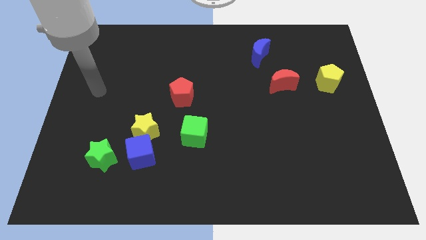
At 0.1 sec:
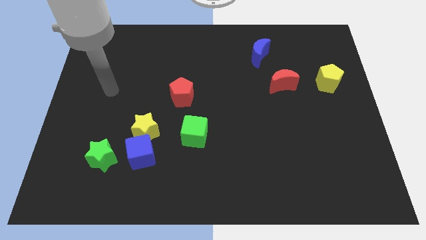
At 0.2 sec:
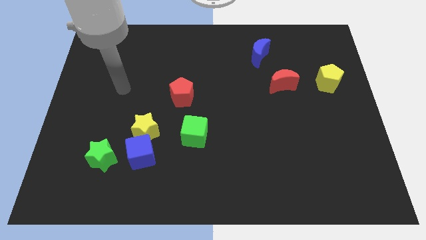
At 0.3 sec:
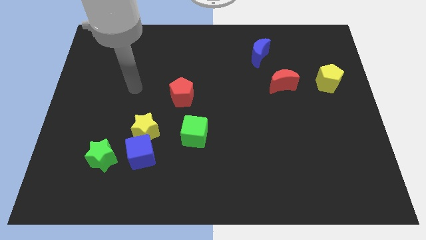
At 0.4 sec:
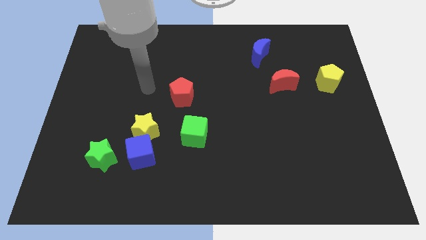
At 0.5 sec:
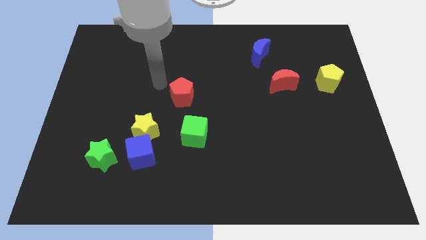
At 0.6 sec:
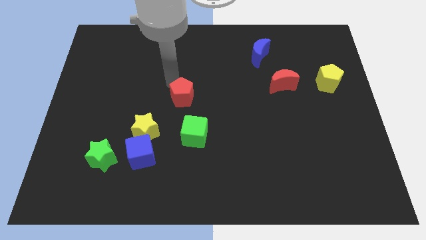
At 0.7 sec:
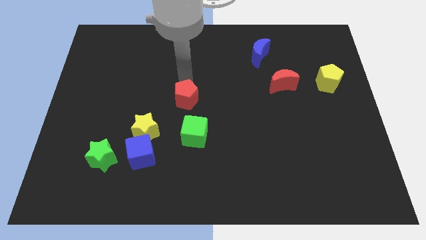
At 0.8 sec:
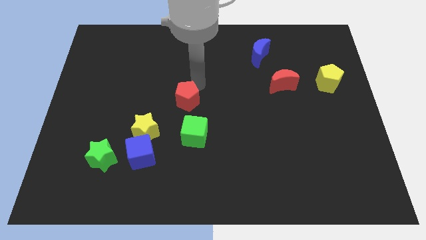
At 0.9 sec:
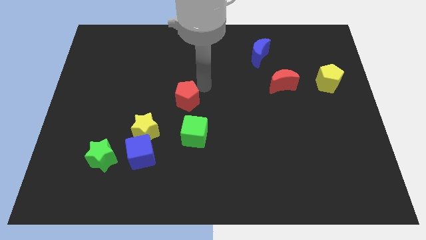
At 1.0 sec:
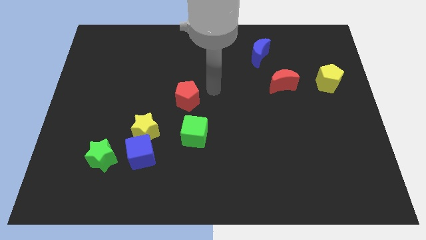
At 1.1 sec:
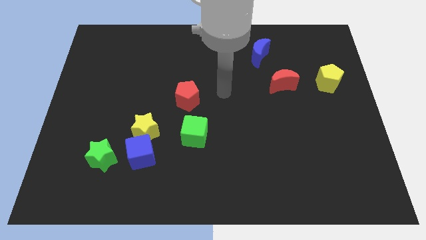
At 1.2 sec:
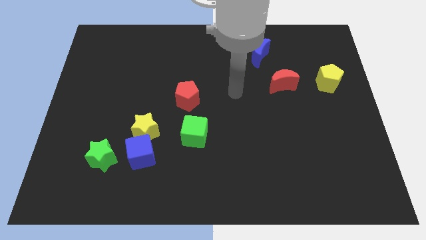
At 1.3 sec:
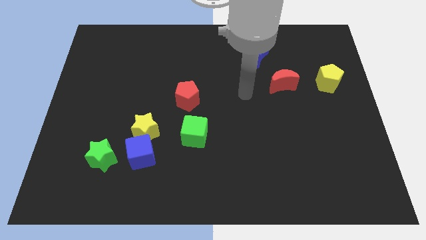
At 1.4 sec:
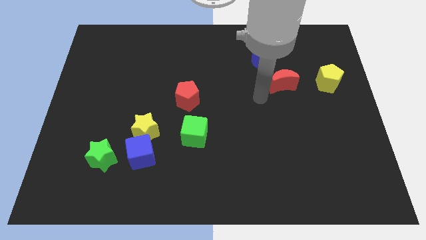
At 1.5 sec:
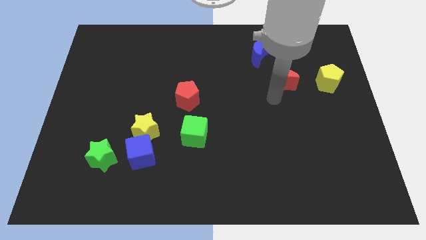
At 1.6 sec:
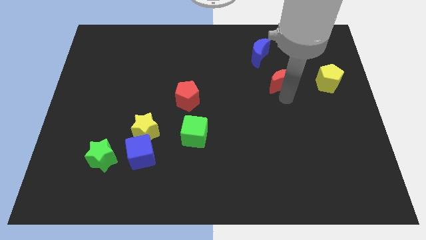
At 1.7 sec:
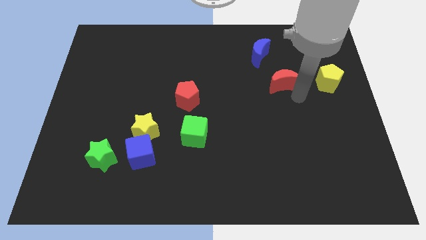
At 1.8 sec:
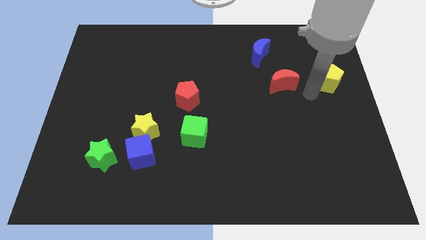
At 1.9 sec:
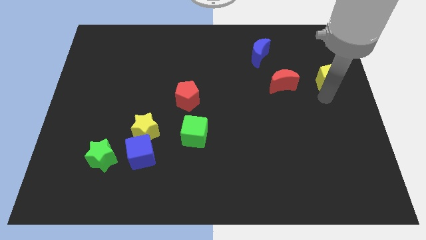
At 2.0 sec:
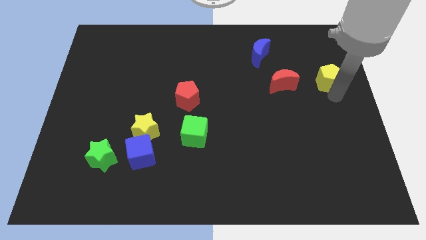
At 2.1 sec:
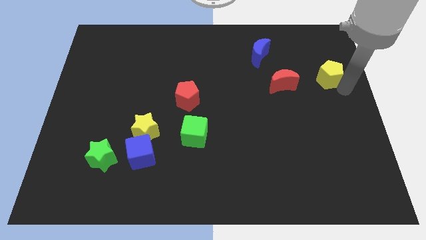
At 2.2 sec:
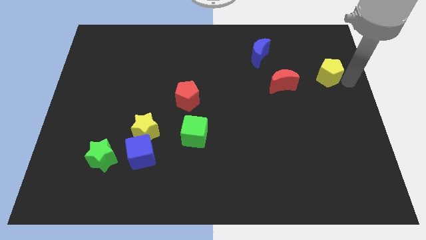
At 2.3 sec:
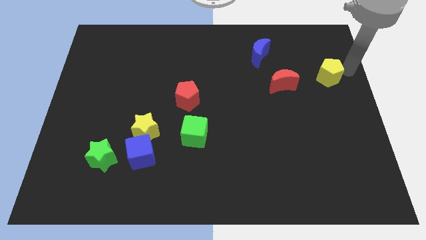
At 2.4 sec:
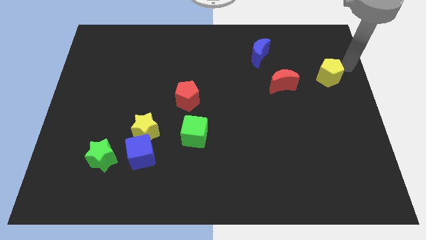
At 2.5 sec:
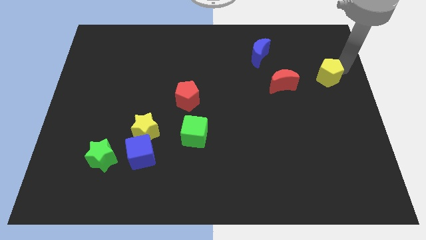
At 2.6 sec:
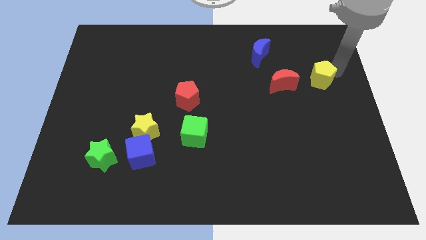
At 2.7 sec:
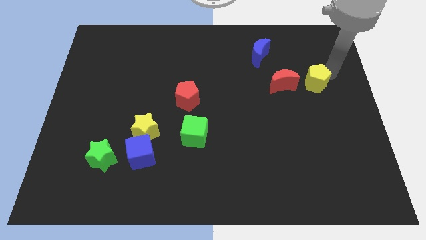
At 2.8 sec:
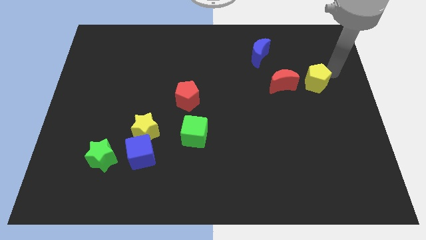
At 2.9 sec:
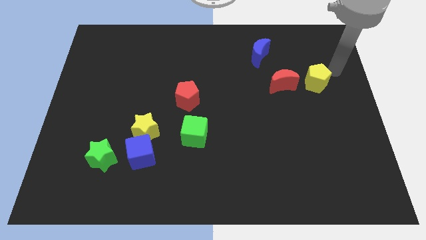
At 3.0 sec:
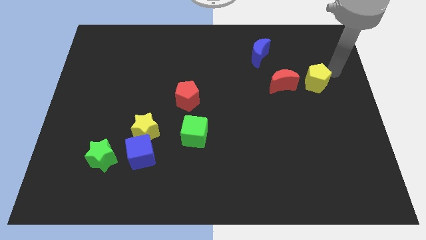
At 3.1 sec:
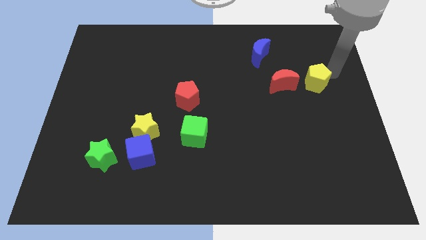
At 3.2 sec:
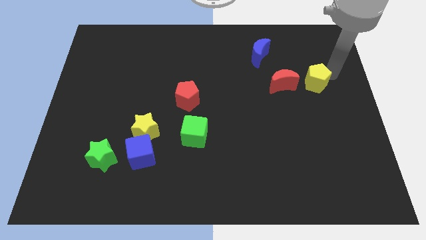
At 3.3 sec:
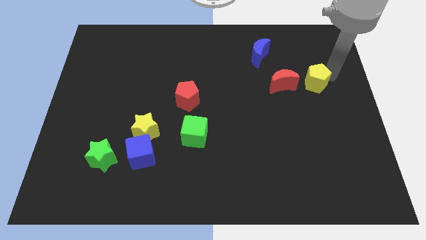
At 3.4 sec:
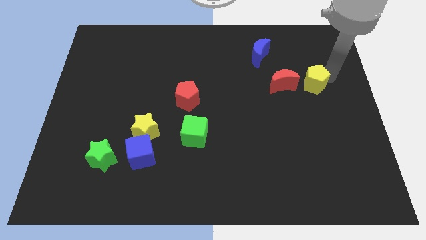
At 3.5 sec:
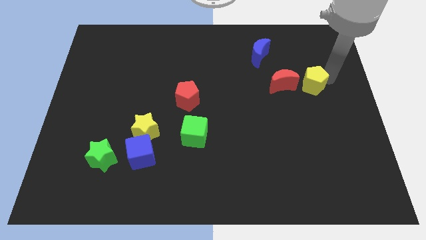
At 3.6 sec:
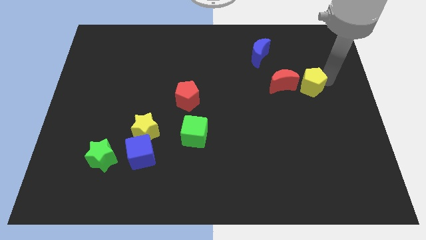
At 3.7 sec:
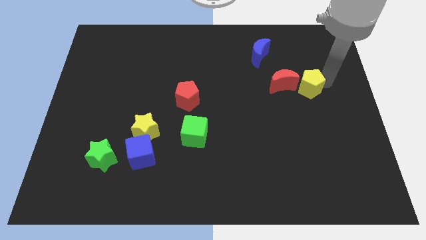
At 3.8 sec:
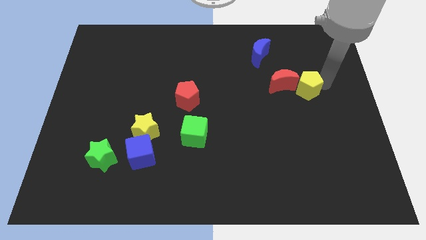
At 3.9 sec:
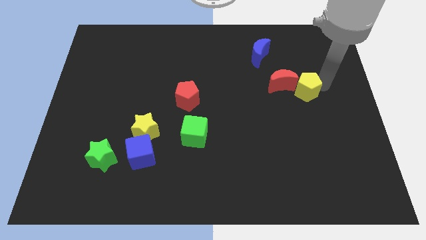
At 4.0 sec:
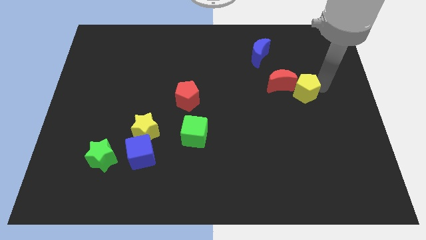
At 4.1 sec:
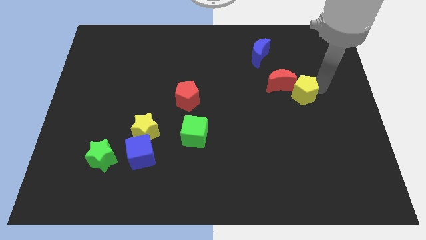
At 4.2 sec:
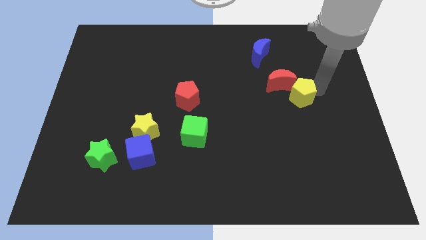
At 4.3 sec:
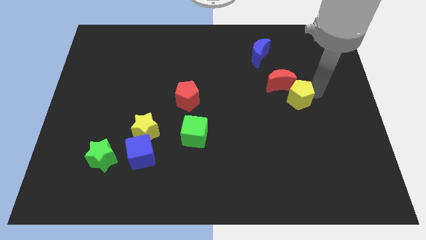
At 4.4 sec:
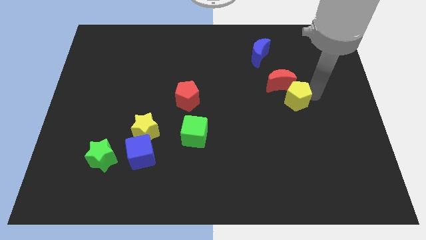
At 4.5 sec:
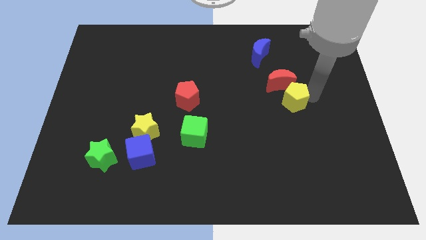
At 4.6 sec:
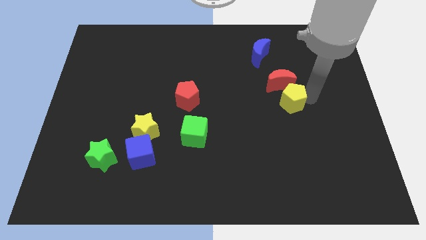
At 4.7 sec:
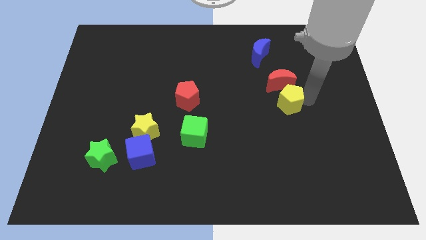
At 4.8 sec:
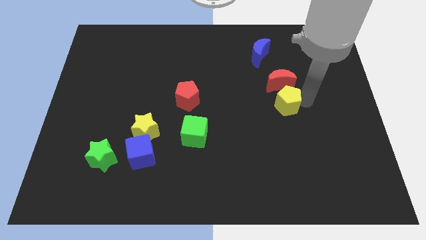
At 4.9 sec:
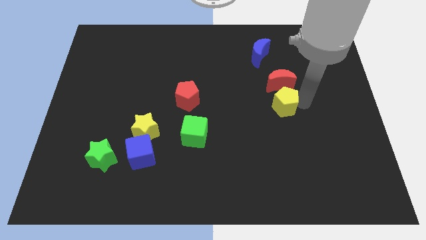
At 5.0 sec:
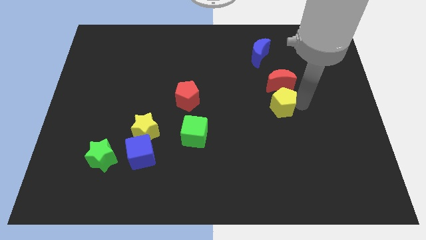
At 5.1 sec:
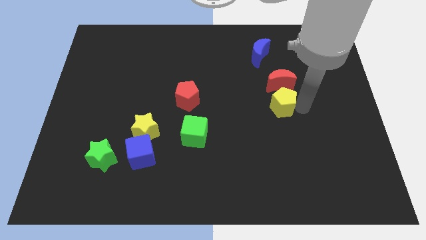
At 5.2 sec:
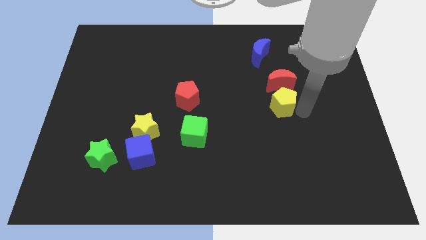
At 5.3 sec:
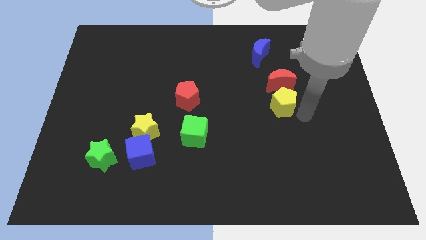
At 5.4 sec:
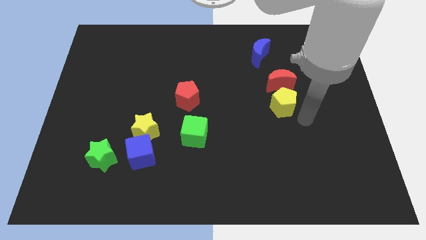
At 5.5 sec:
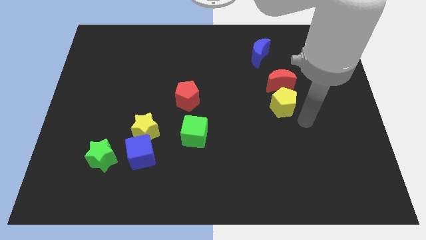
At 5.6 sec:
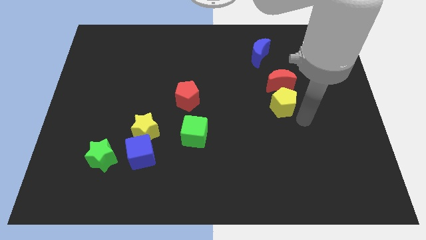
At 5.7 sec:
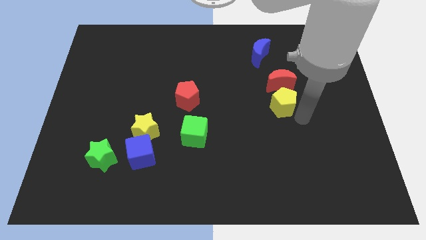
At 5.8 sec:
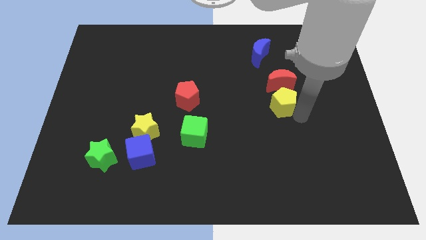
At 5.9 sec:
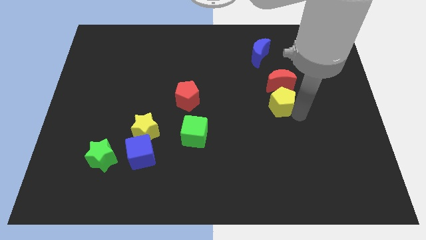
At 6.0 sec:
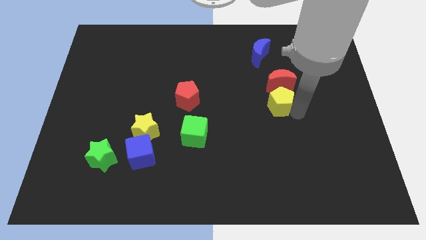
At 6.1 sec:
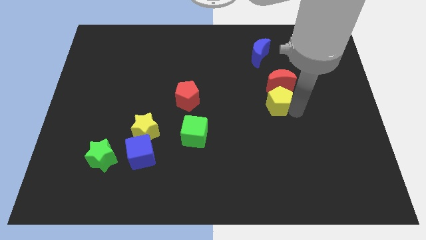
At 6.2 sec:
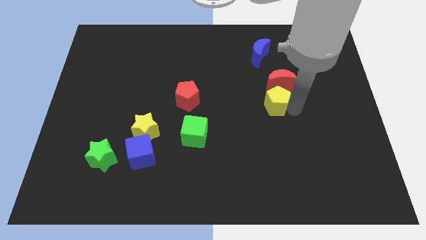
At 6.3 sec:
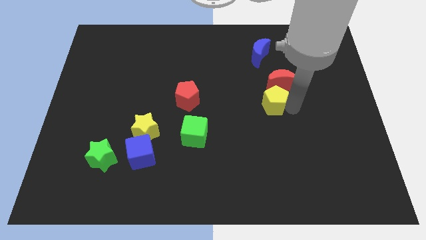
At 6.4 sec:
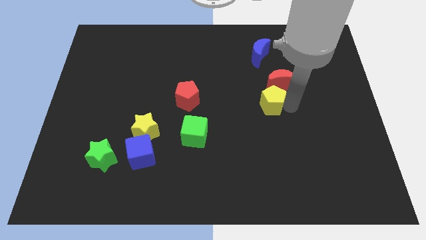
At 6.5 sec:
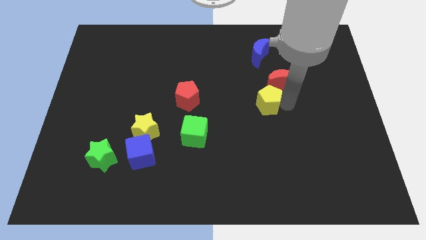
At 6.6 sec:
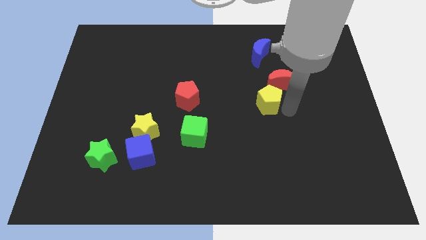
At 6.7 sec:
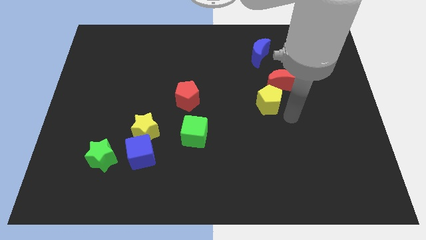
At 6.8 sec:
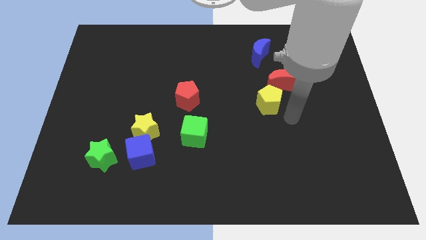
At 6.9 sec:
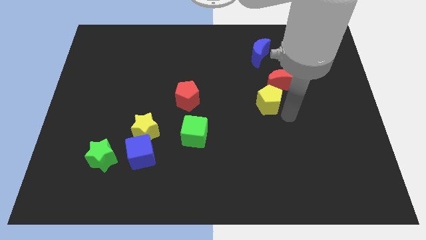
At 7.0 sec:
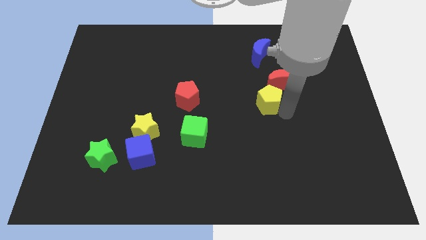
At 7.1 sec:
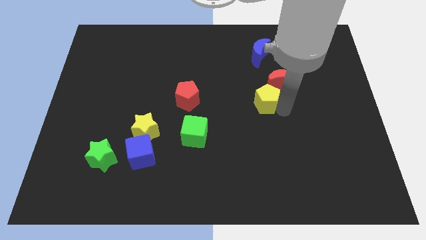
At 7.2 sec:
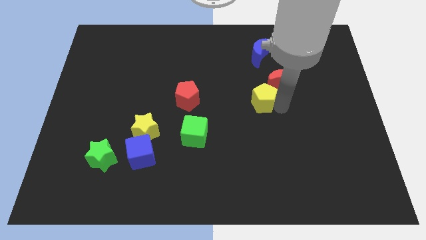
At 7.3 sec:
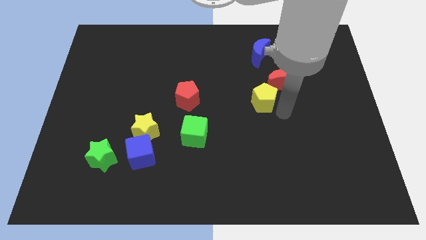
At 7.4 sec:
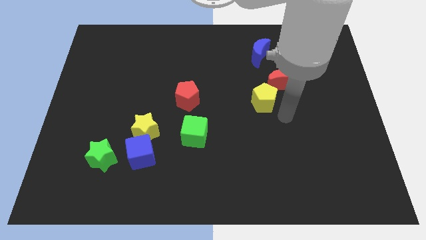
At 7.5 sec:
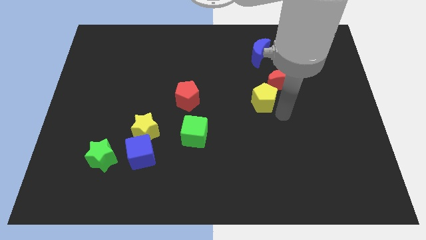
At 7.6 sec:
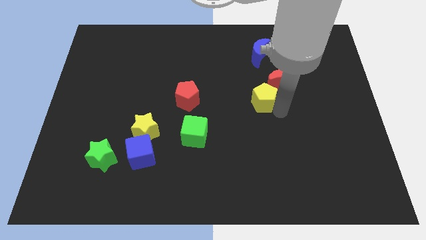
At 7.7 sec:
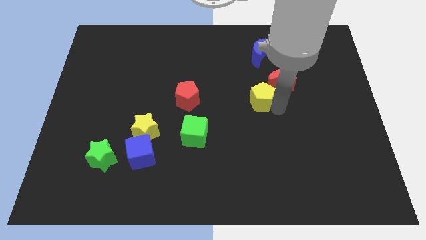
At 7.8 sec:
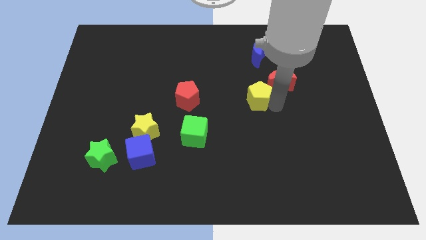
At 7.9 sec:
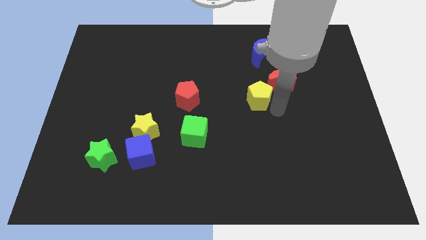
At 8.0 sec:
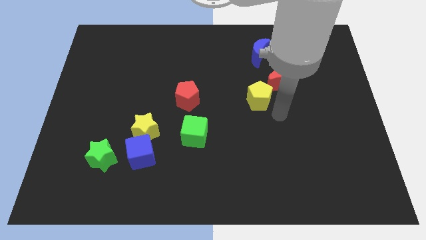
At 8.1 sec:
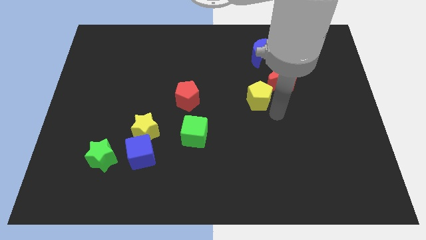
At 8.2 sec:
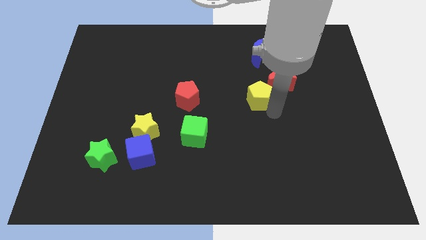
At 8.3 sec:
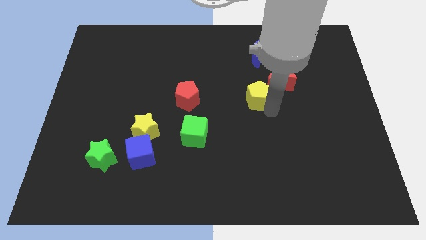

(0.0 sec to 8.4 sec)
slide the yellow pentagon to the left side of the red moon
